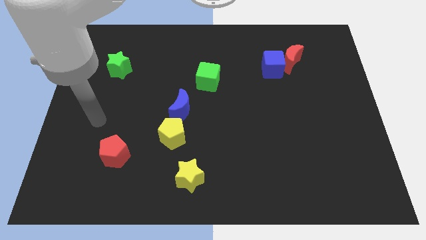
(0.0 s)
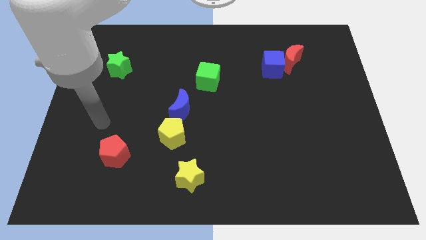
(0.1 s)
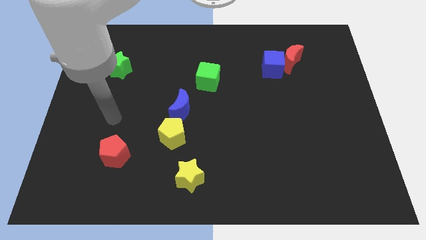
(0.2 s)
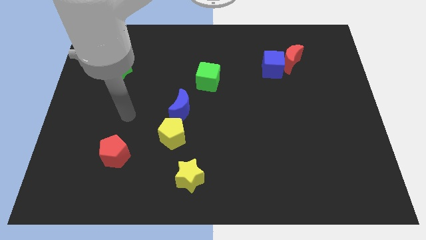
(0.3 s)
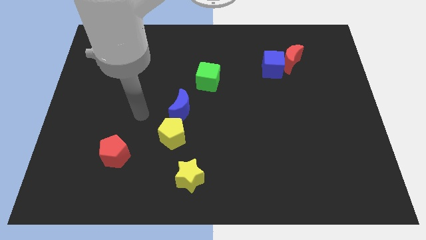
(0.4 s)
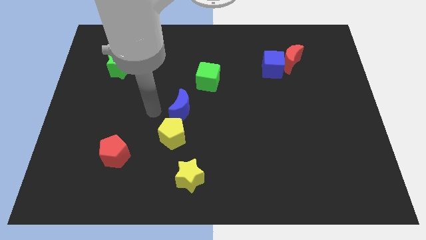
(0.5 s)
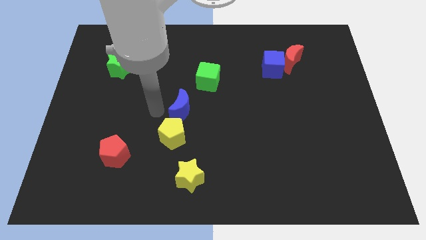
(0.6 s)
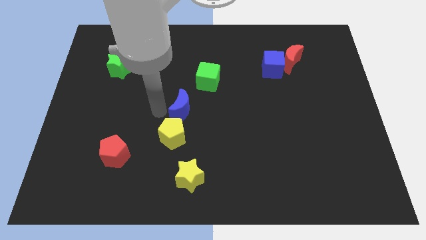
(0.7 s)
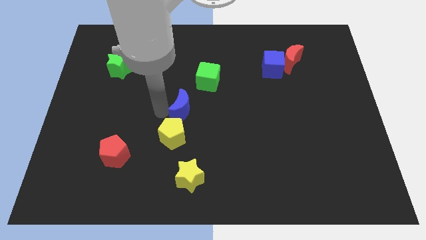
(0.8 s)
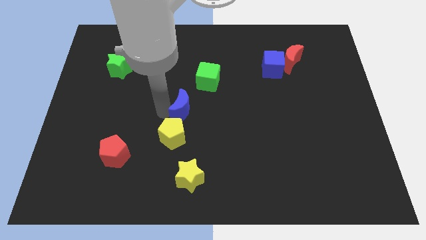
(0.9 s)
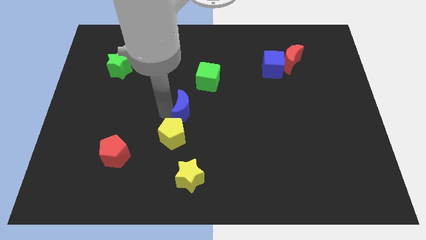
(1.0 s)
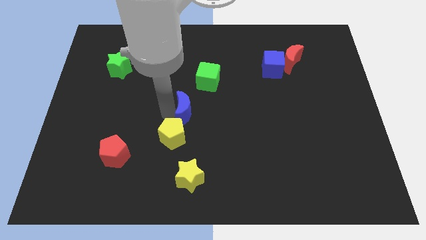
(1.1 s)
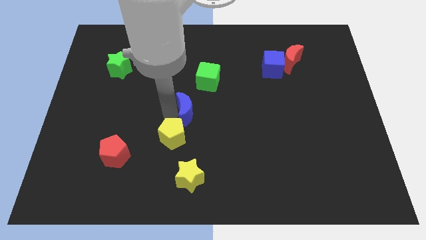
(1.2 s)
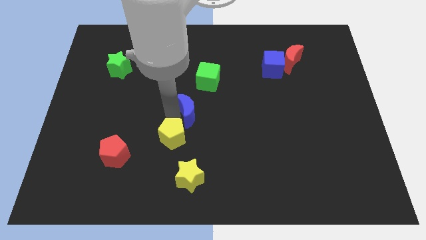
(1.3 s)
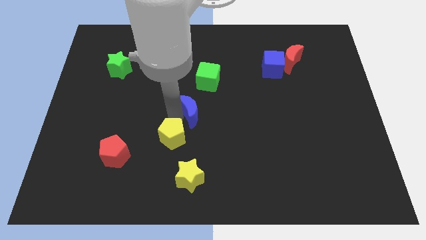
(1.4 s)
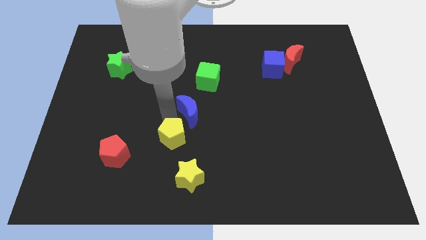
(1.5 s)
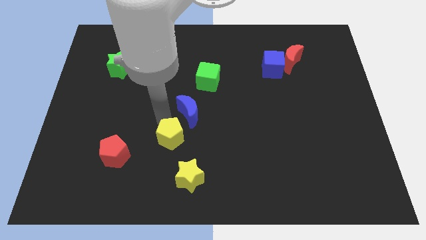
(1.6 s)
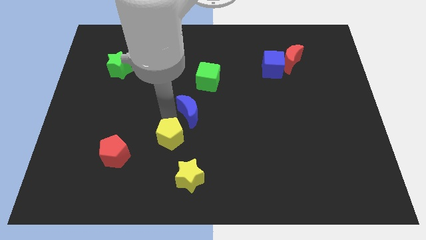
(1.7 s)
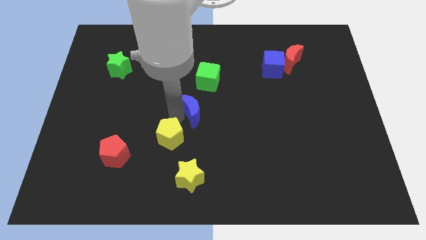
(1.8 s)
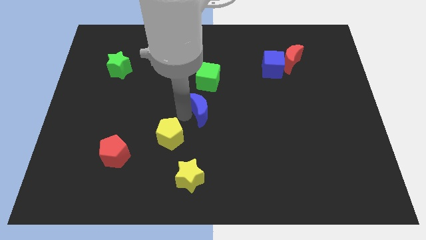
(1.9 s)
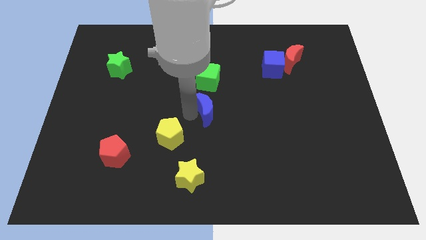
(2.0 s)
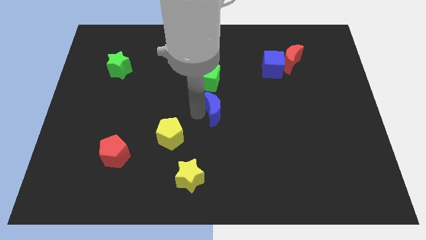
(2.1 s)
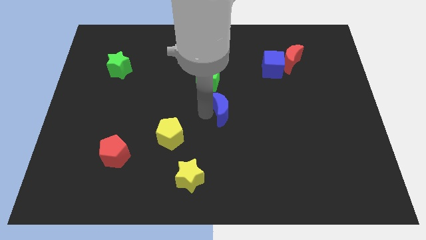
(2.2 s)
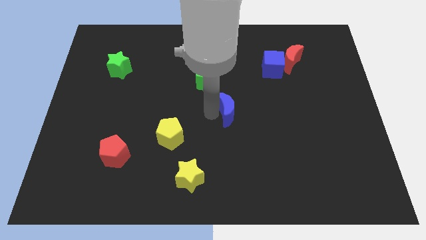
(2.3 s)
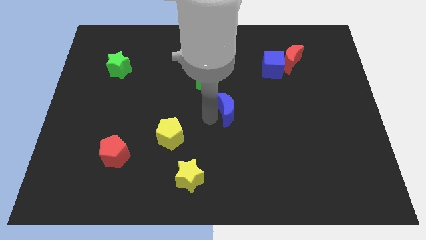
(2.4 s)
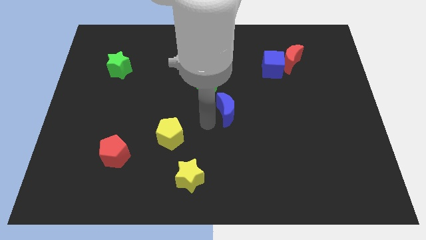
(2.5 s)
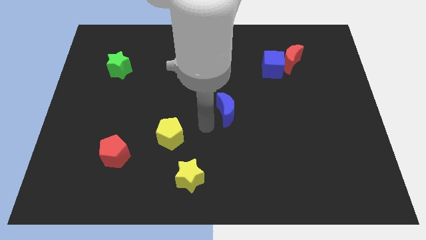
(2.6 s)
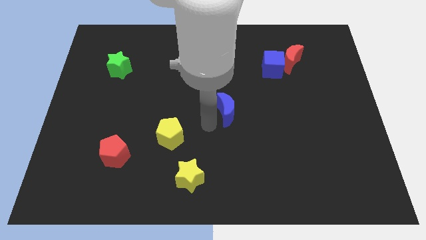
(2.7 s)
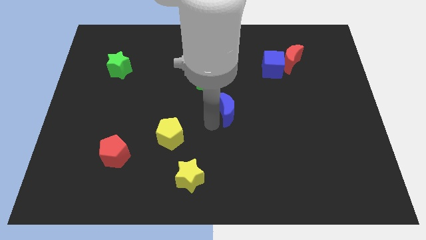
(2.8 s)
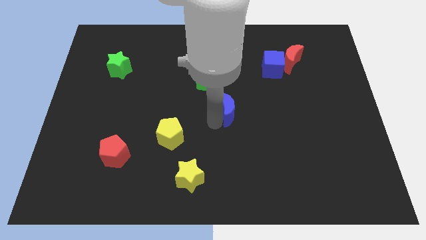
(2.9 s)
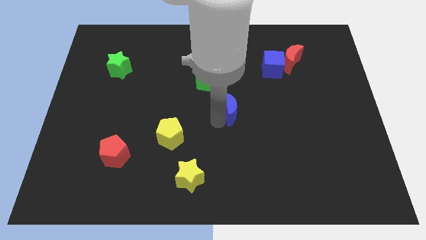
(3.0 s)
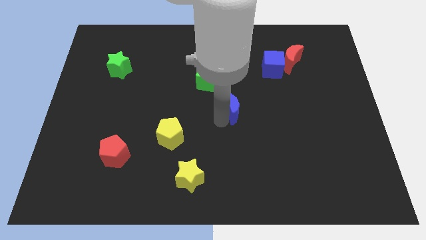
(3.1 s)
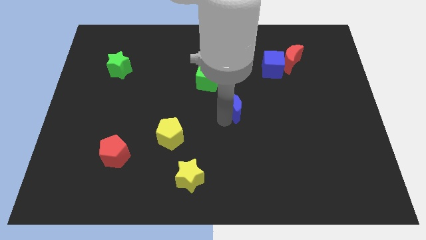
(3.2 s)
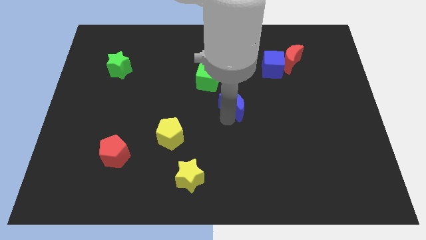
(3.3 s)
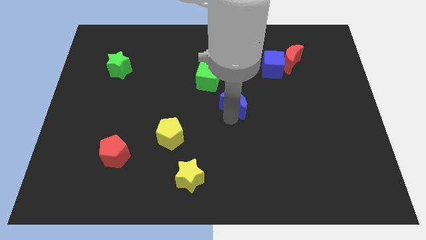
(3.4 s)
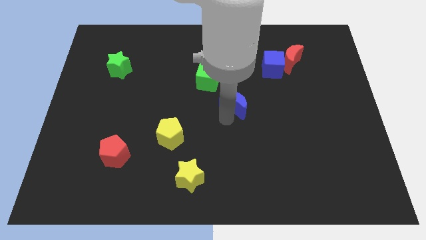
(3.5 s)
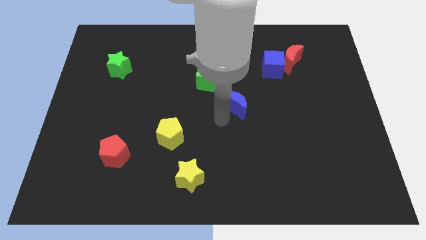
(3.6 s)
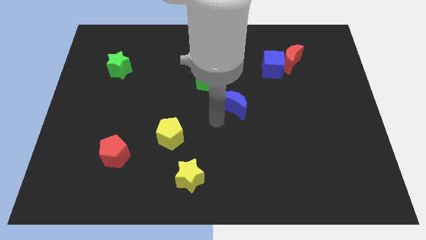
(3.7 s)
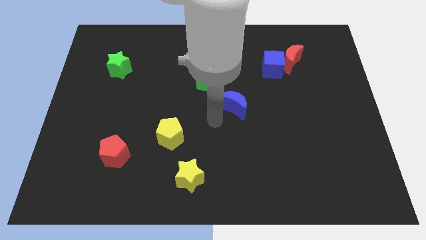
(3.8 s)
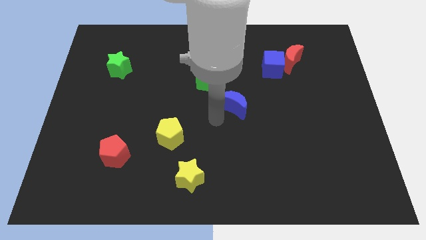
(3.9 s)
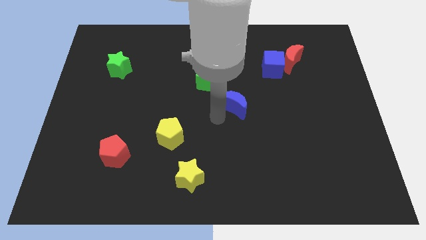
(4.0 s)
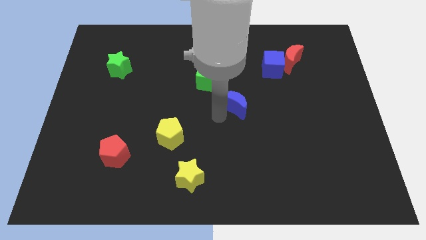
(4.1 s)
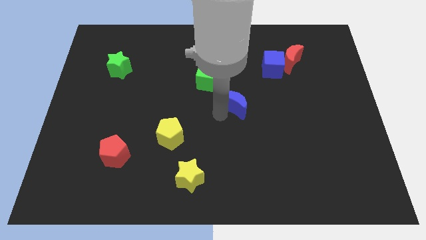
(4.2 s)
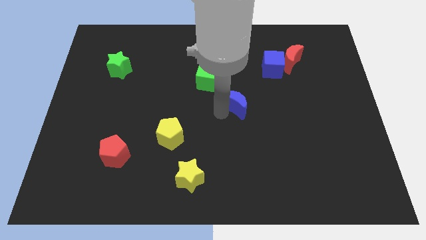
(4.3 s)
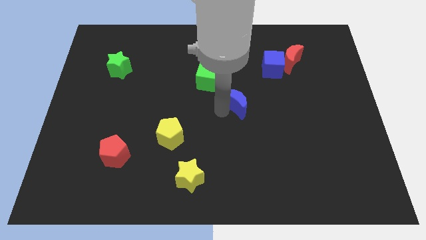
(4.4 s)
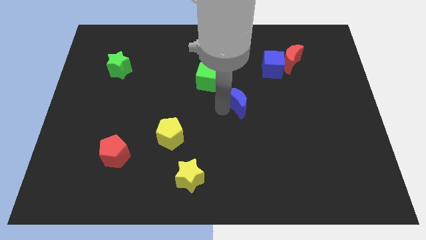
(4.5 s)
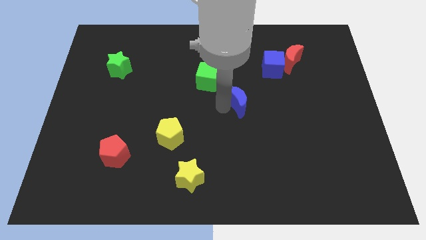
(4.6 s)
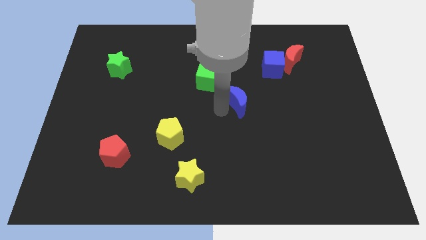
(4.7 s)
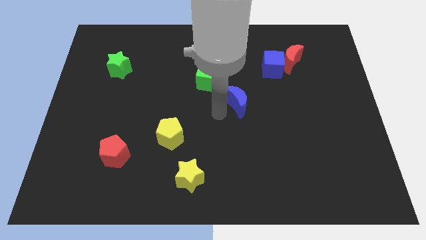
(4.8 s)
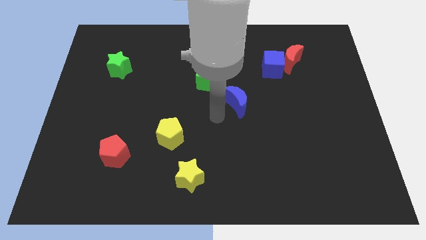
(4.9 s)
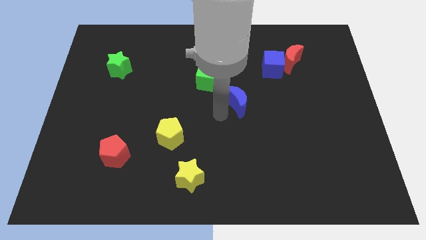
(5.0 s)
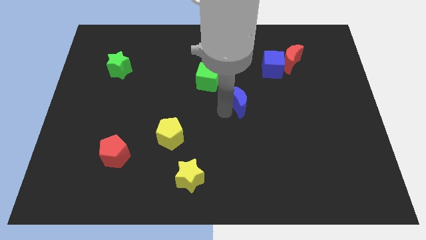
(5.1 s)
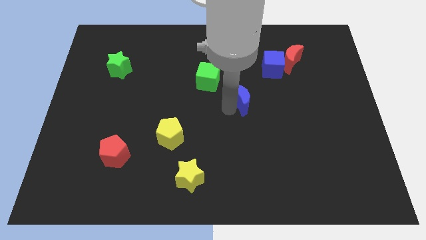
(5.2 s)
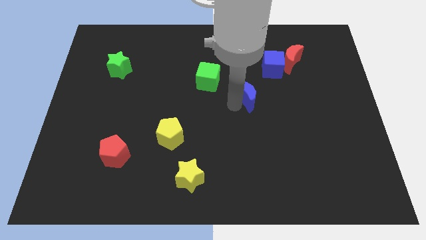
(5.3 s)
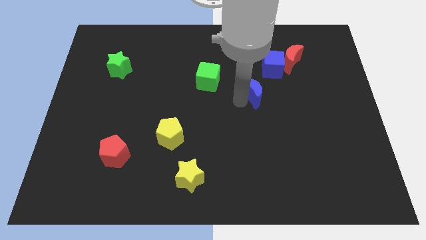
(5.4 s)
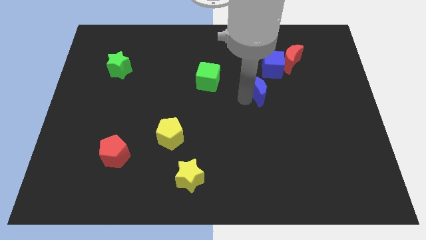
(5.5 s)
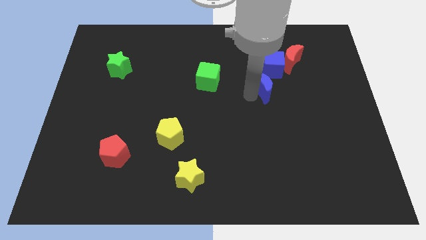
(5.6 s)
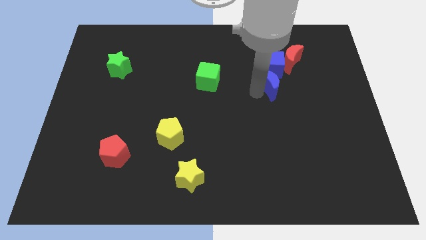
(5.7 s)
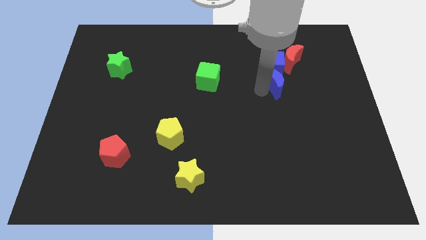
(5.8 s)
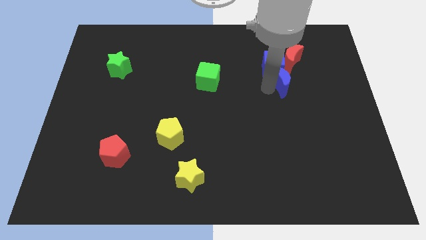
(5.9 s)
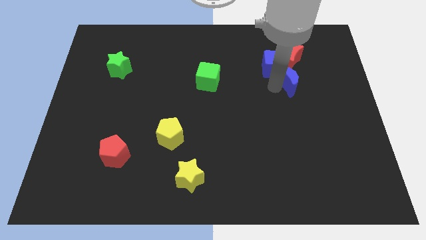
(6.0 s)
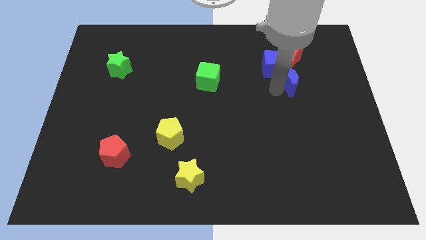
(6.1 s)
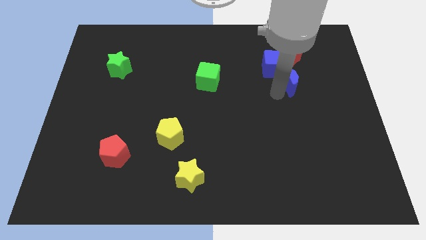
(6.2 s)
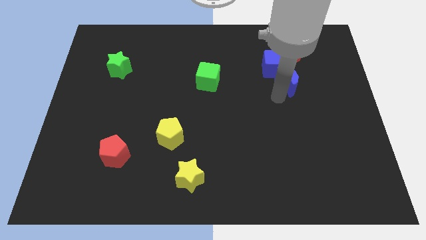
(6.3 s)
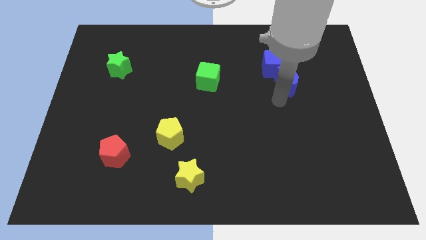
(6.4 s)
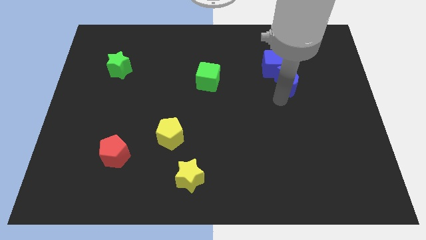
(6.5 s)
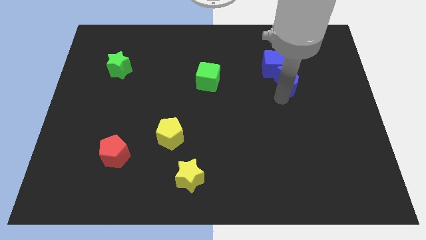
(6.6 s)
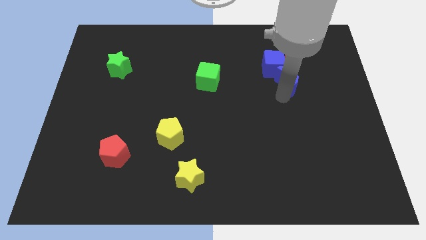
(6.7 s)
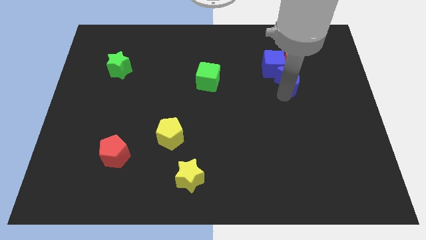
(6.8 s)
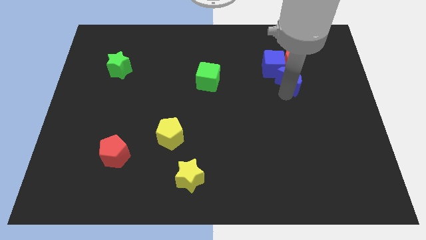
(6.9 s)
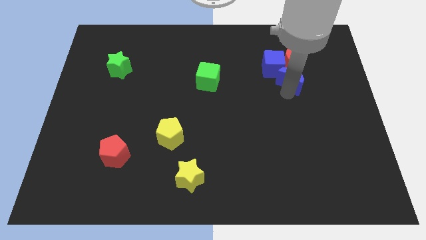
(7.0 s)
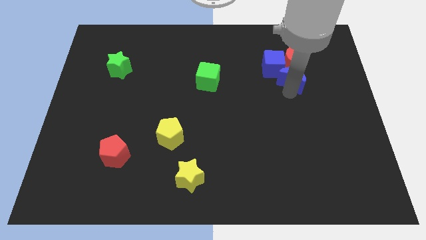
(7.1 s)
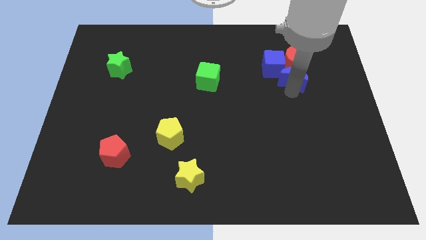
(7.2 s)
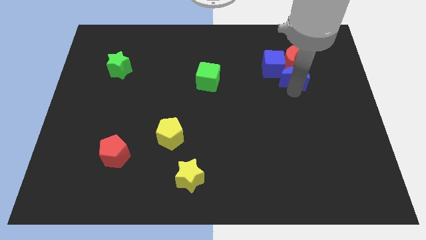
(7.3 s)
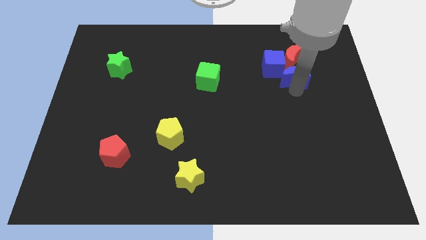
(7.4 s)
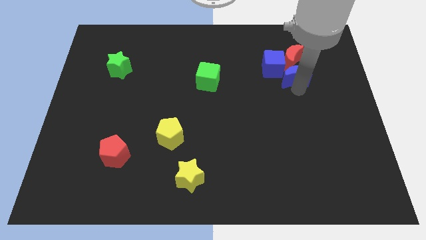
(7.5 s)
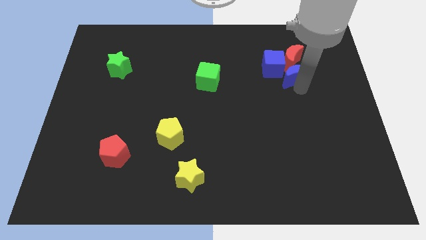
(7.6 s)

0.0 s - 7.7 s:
move the blue moon to the red moon
